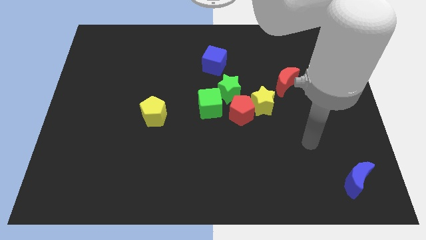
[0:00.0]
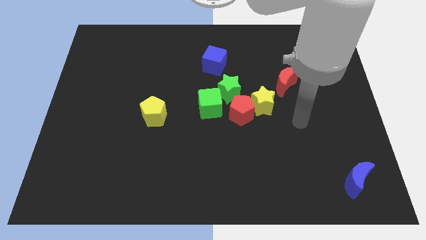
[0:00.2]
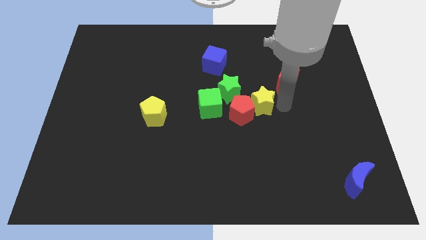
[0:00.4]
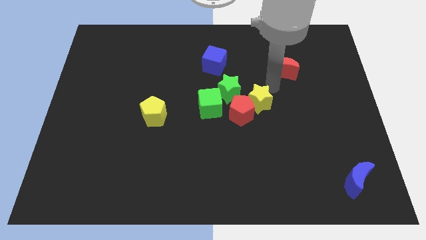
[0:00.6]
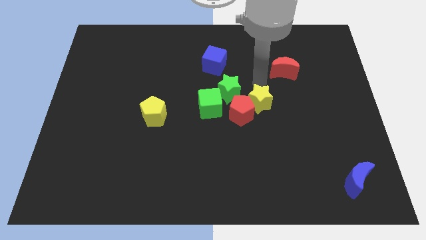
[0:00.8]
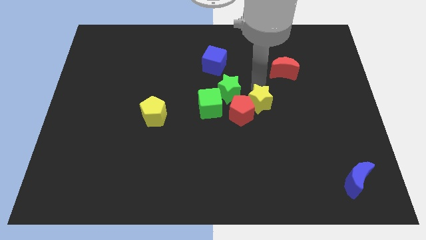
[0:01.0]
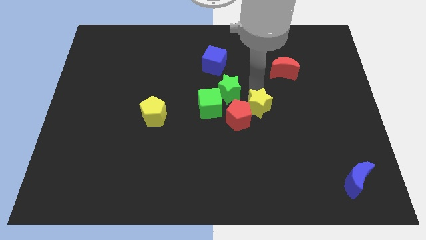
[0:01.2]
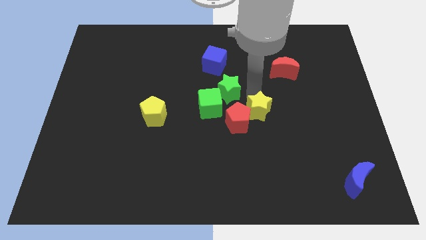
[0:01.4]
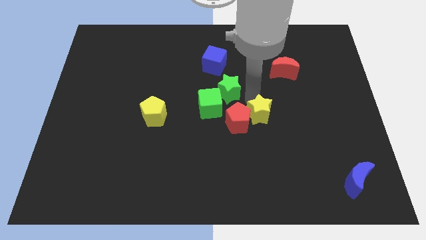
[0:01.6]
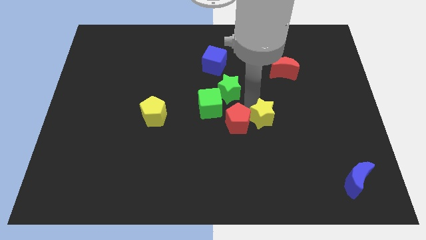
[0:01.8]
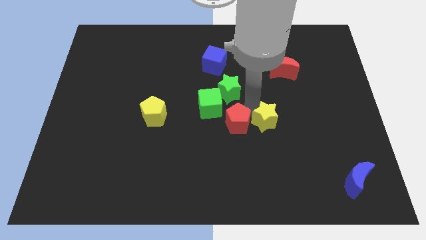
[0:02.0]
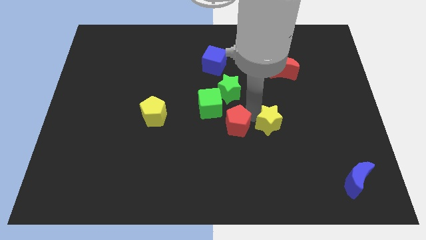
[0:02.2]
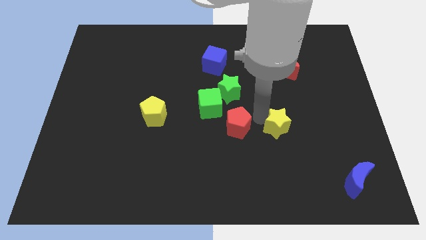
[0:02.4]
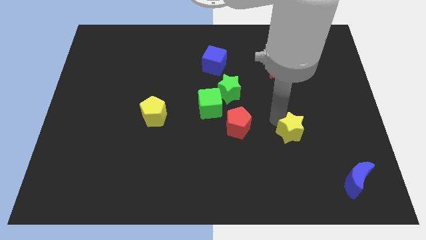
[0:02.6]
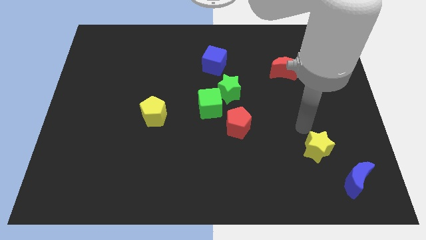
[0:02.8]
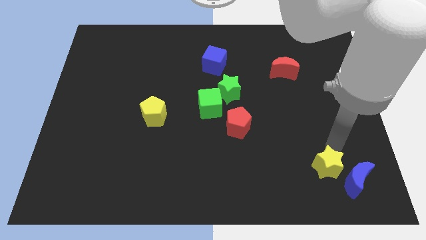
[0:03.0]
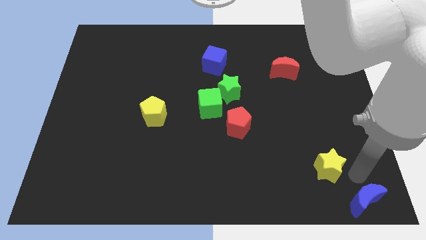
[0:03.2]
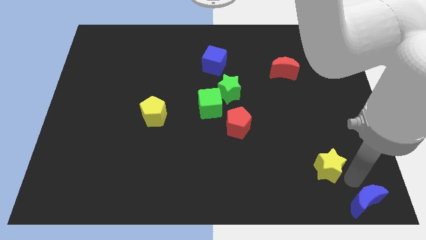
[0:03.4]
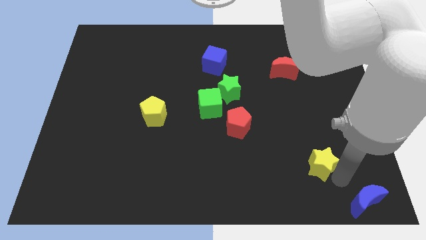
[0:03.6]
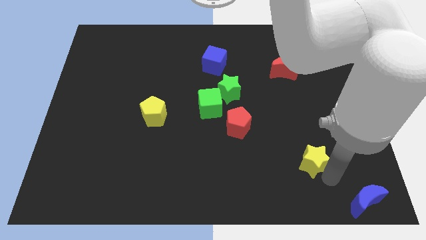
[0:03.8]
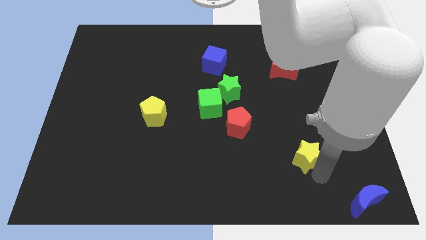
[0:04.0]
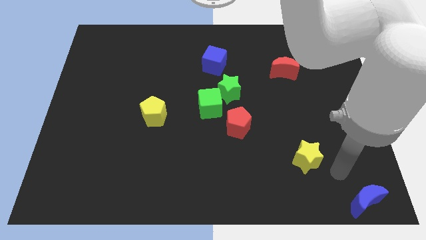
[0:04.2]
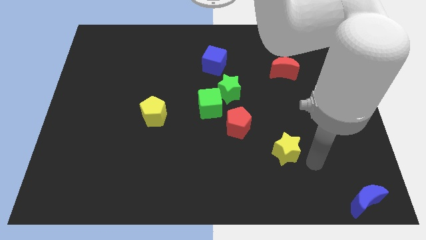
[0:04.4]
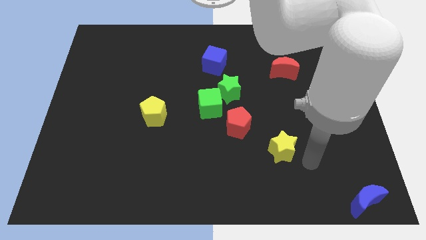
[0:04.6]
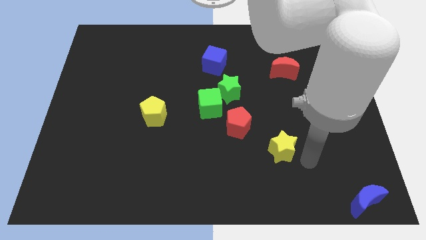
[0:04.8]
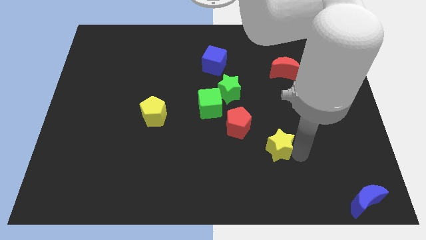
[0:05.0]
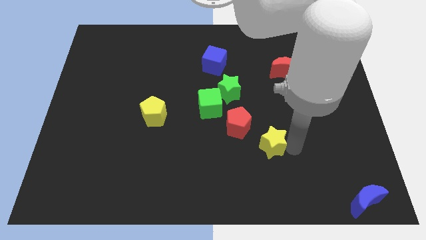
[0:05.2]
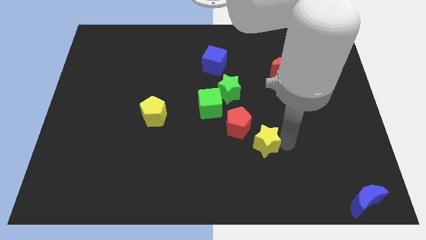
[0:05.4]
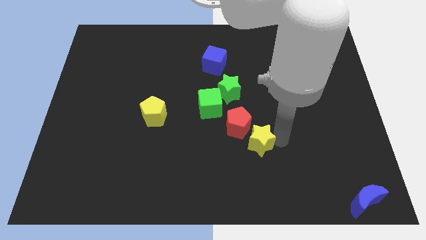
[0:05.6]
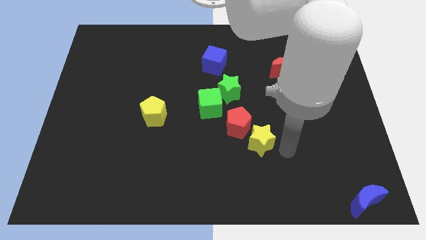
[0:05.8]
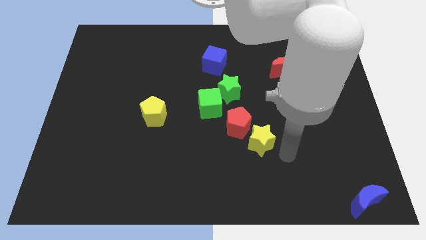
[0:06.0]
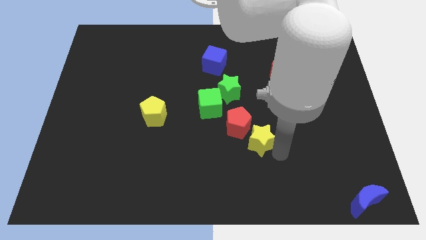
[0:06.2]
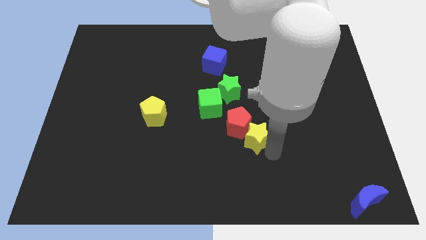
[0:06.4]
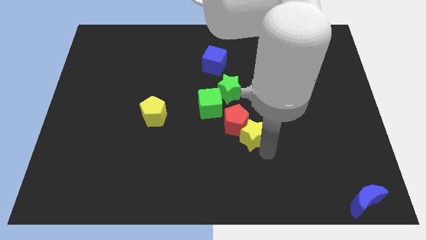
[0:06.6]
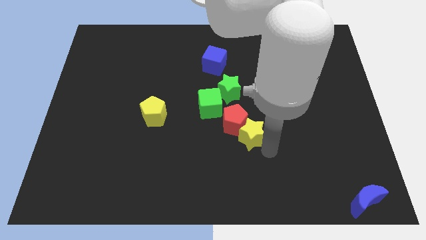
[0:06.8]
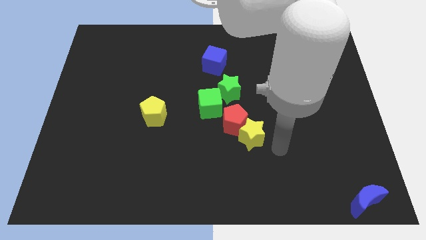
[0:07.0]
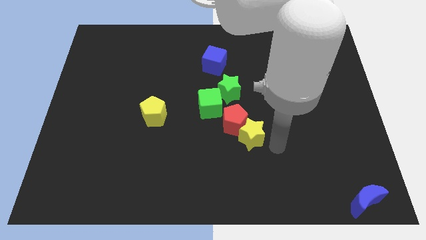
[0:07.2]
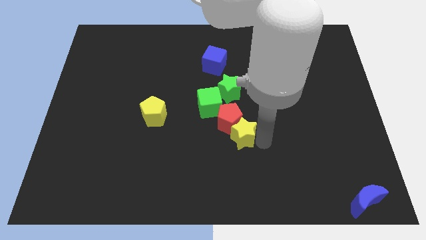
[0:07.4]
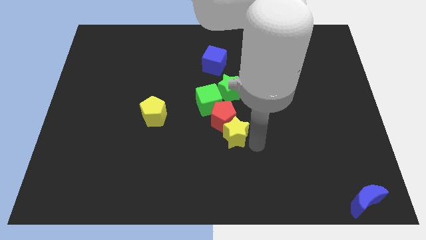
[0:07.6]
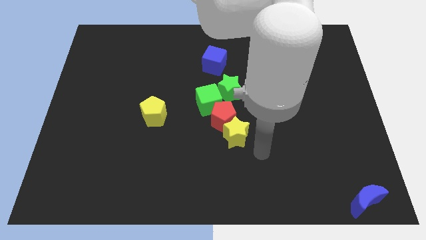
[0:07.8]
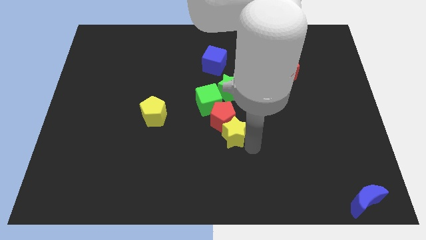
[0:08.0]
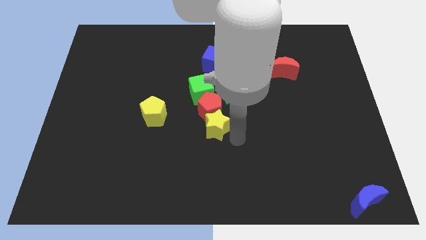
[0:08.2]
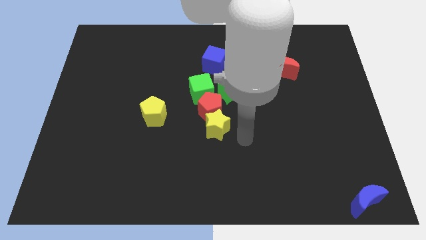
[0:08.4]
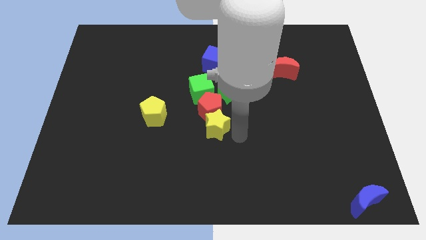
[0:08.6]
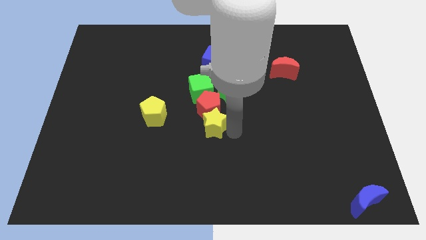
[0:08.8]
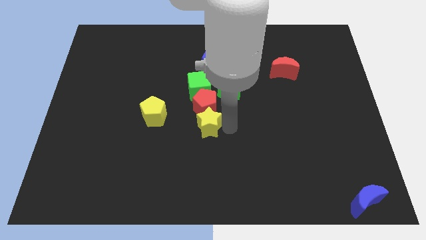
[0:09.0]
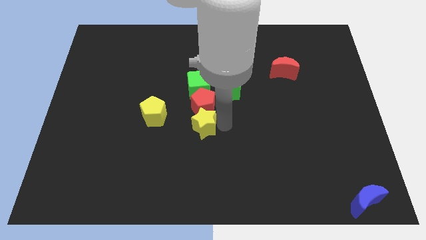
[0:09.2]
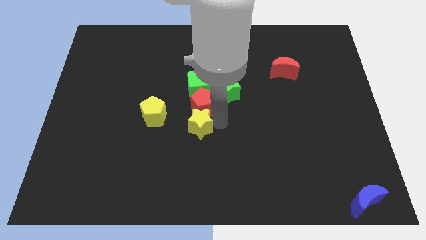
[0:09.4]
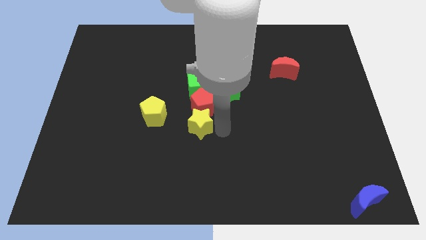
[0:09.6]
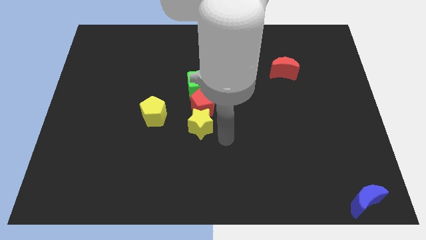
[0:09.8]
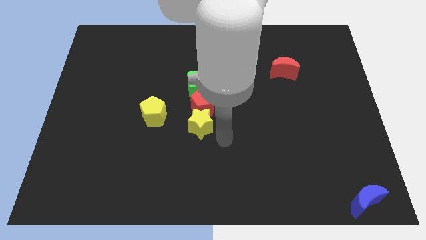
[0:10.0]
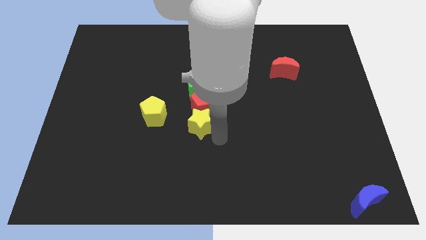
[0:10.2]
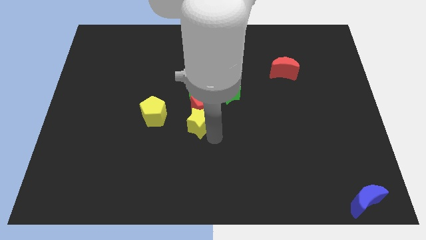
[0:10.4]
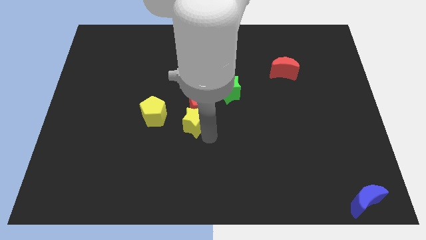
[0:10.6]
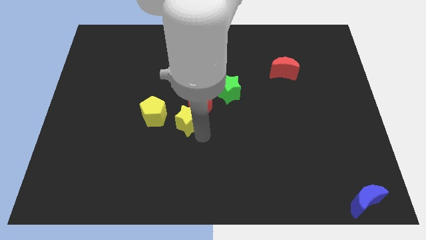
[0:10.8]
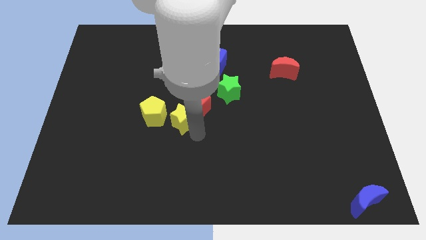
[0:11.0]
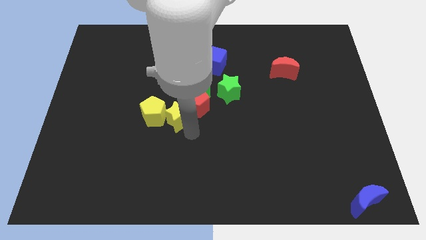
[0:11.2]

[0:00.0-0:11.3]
slide the yellow star towards the yellow pentagon

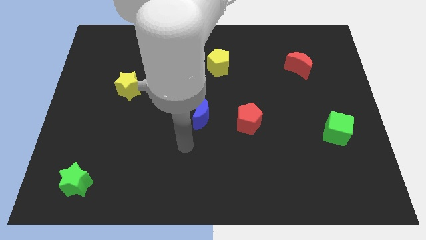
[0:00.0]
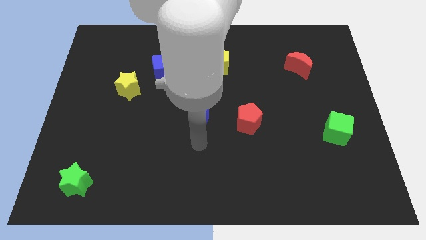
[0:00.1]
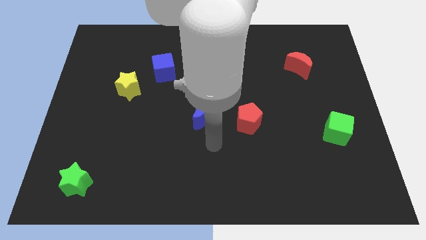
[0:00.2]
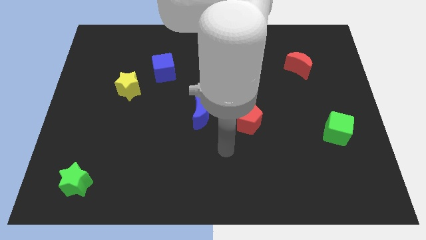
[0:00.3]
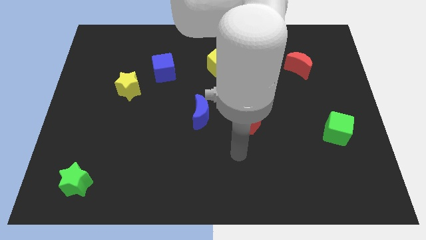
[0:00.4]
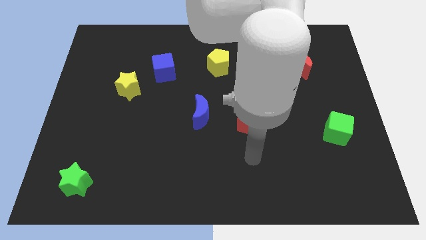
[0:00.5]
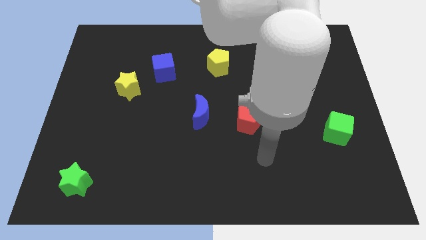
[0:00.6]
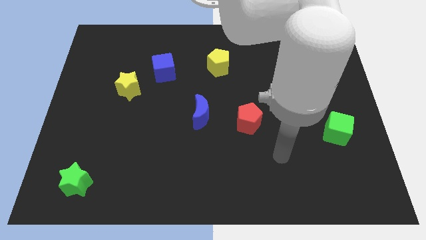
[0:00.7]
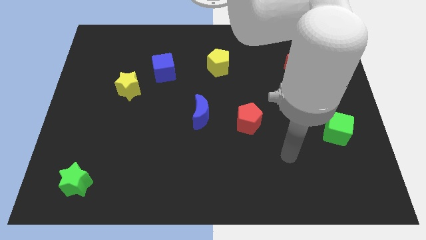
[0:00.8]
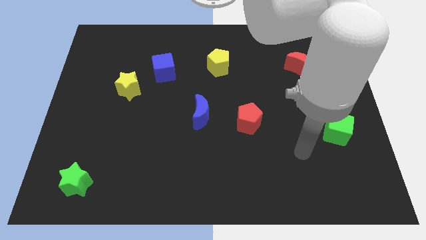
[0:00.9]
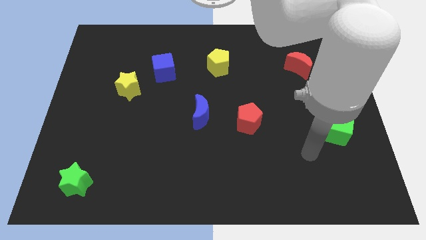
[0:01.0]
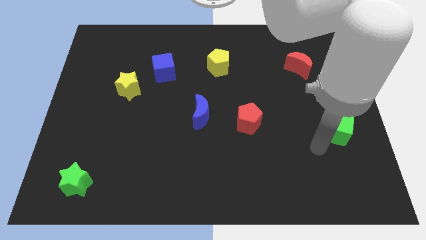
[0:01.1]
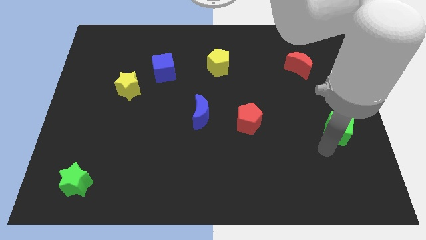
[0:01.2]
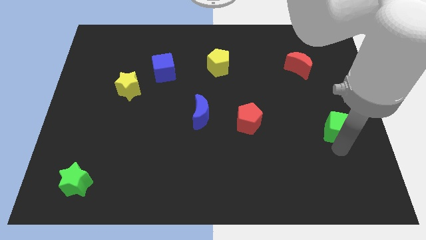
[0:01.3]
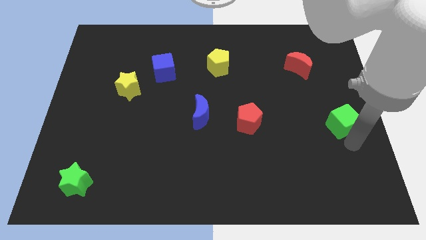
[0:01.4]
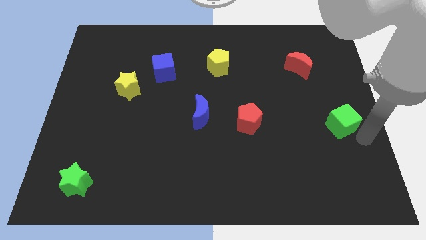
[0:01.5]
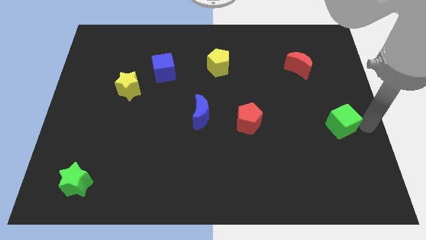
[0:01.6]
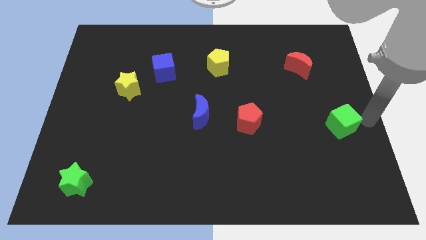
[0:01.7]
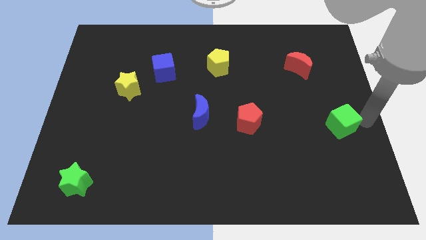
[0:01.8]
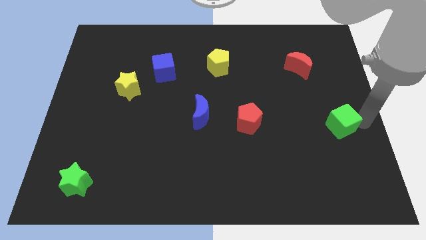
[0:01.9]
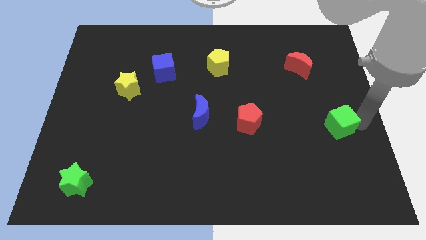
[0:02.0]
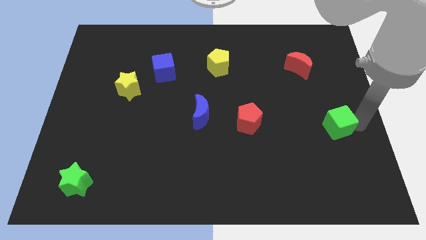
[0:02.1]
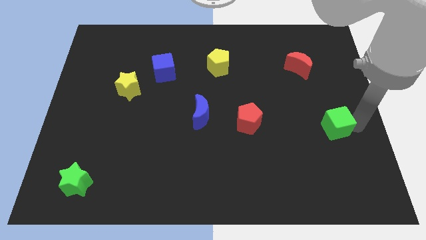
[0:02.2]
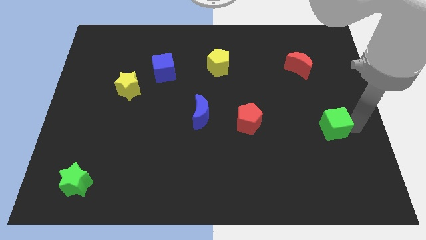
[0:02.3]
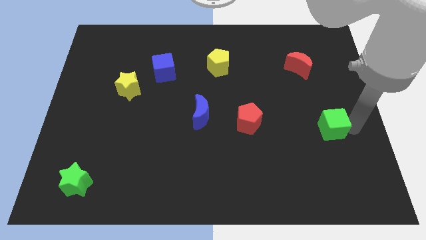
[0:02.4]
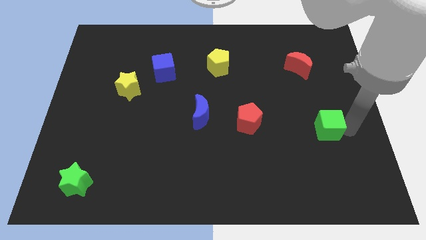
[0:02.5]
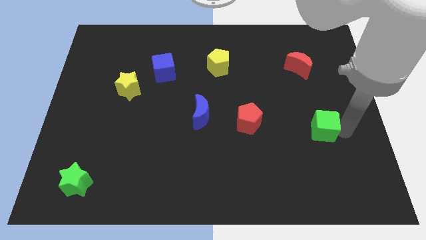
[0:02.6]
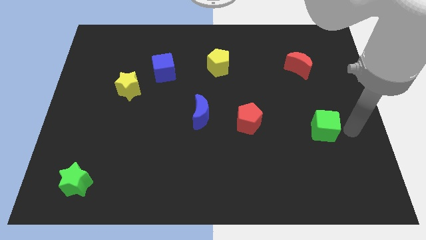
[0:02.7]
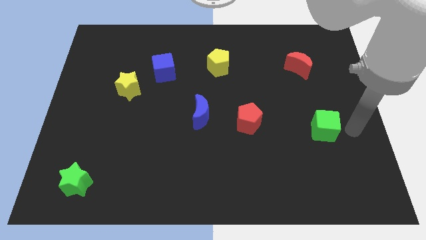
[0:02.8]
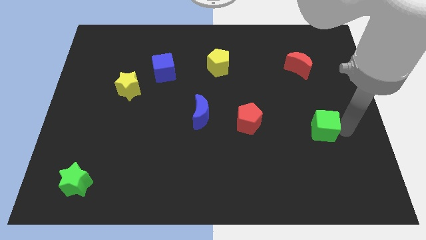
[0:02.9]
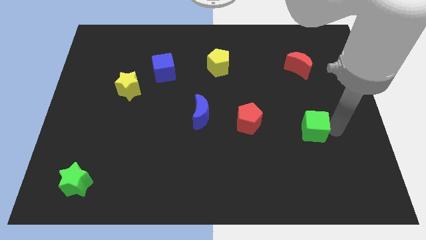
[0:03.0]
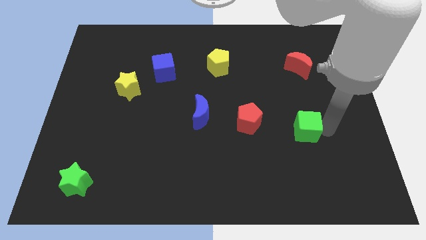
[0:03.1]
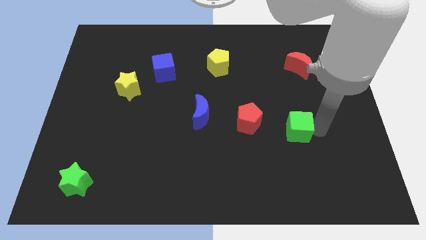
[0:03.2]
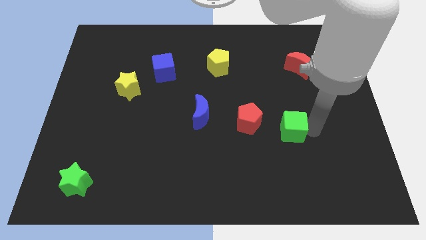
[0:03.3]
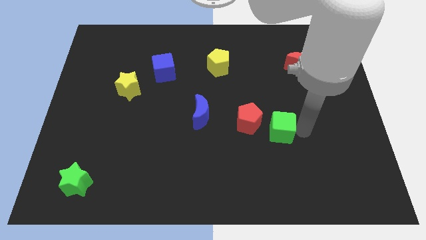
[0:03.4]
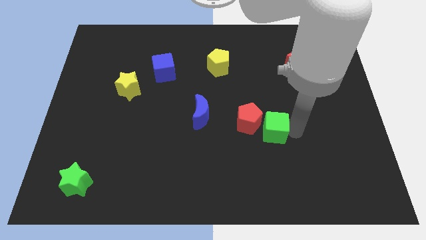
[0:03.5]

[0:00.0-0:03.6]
move the green cube towards the red pentagon
